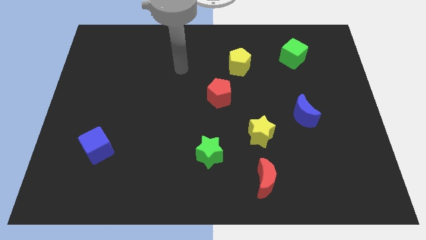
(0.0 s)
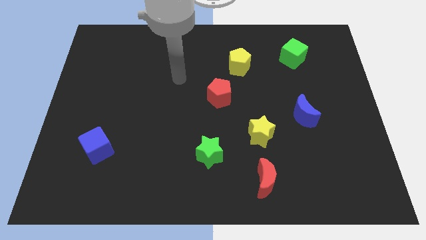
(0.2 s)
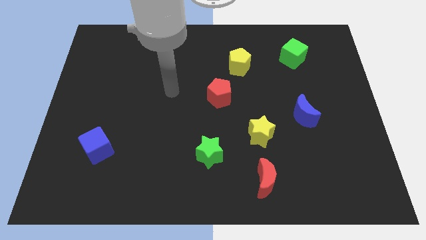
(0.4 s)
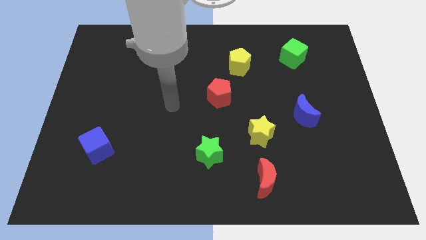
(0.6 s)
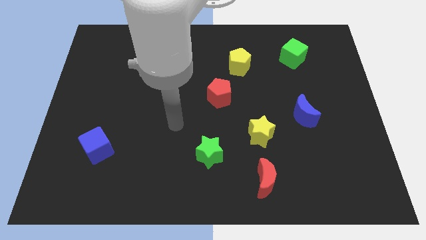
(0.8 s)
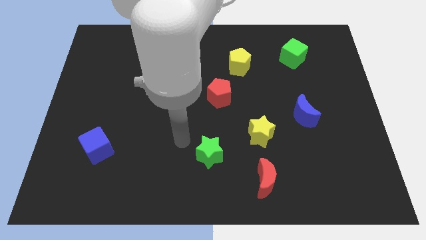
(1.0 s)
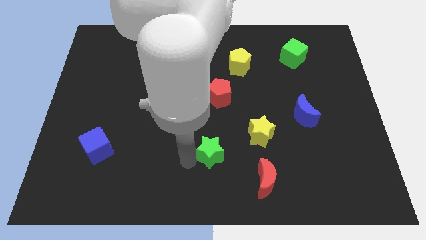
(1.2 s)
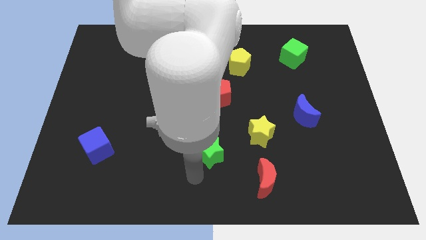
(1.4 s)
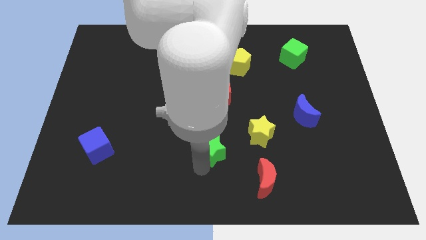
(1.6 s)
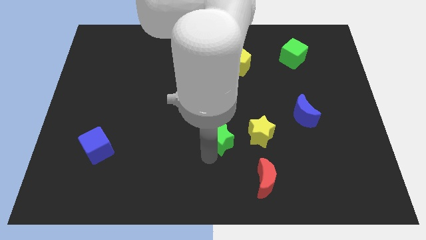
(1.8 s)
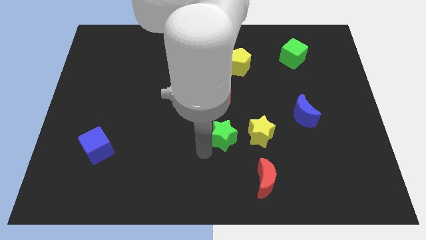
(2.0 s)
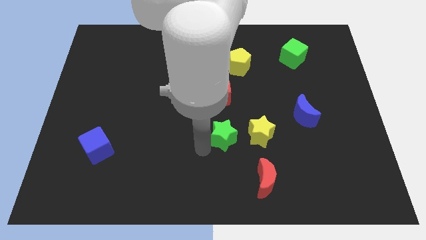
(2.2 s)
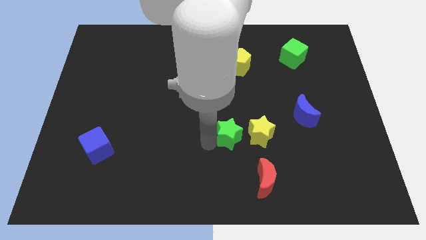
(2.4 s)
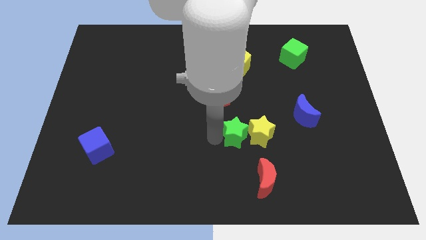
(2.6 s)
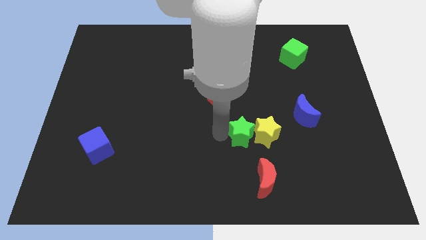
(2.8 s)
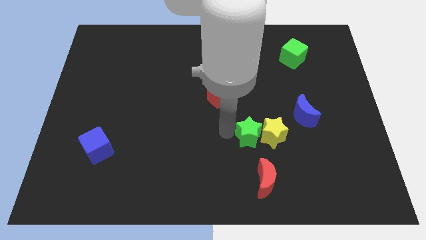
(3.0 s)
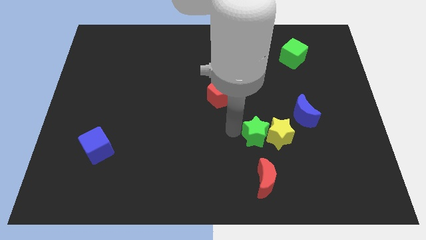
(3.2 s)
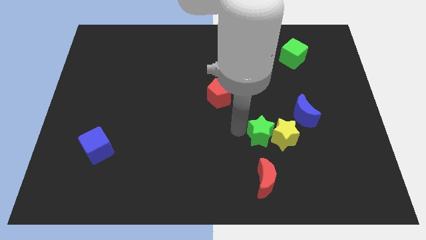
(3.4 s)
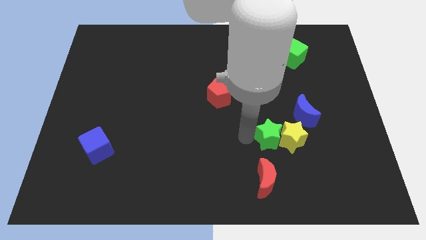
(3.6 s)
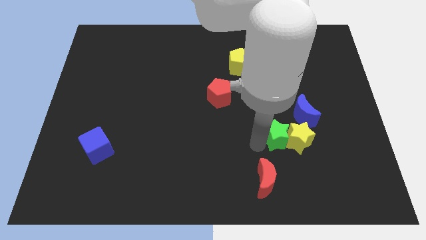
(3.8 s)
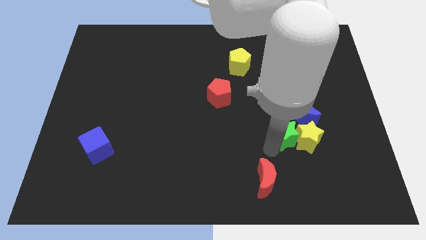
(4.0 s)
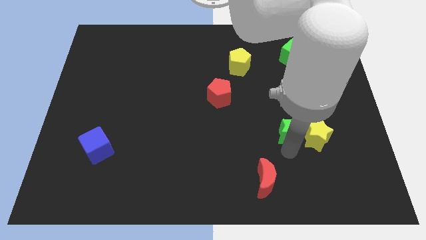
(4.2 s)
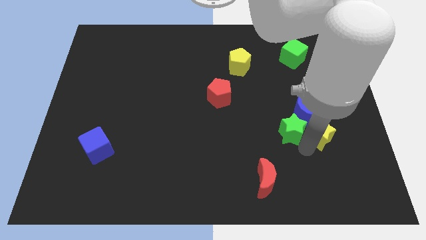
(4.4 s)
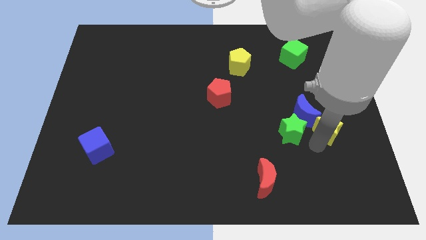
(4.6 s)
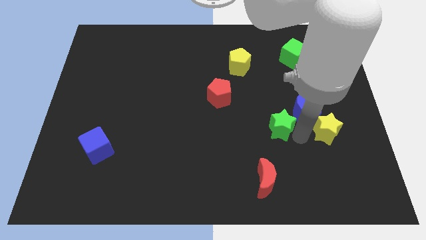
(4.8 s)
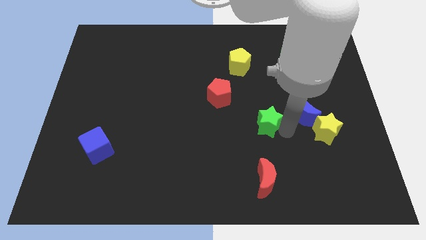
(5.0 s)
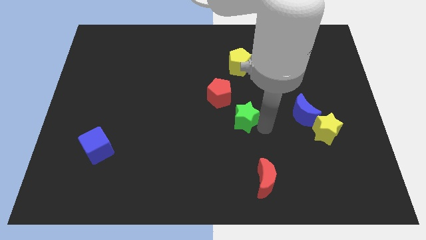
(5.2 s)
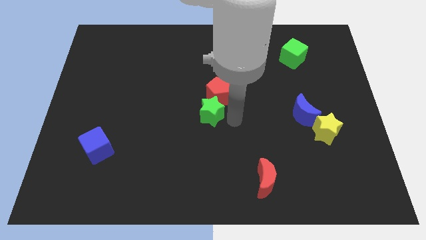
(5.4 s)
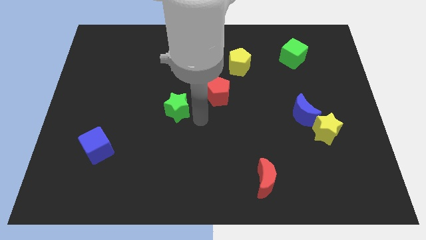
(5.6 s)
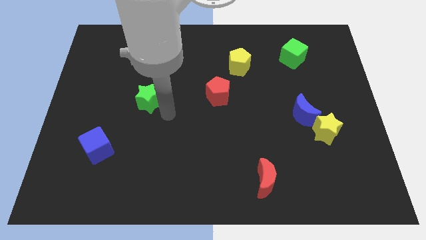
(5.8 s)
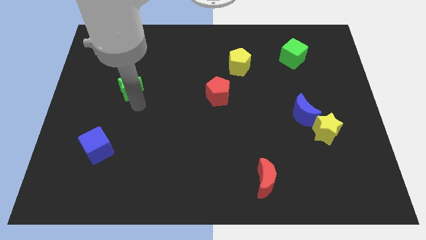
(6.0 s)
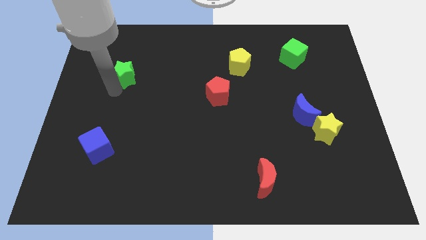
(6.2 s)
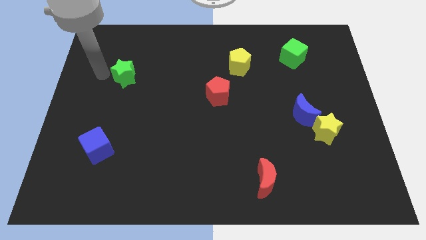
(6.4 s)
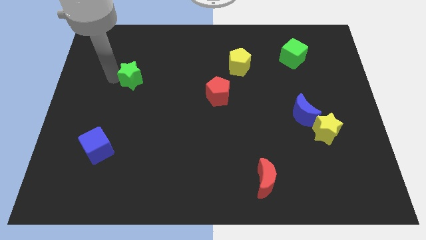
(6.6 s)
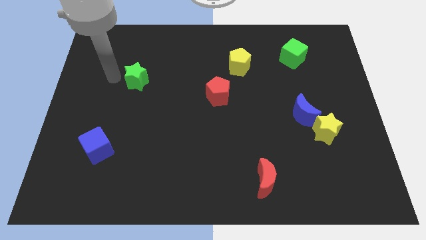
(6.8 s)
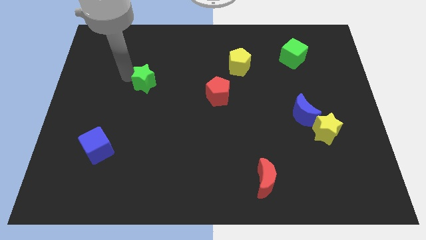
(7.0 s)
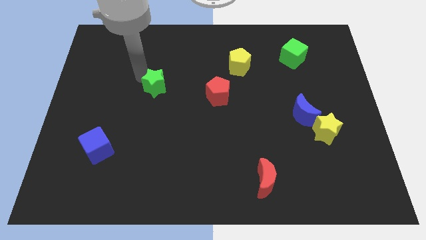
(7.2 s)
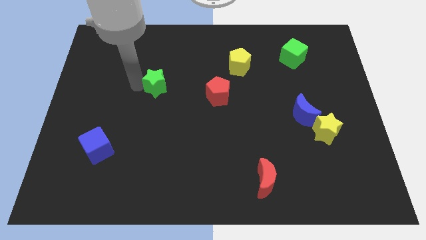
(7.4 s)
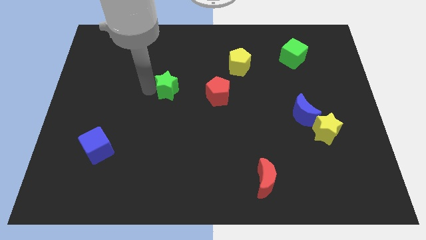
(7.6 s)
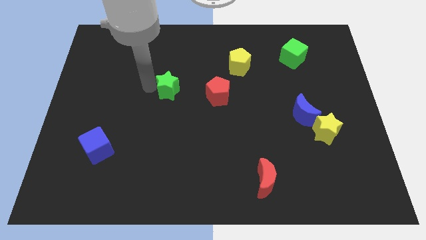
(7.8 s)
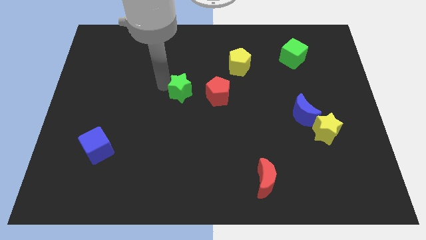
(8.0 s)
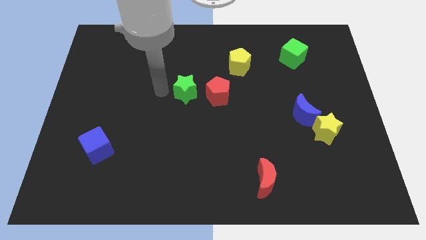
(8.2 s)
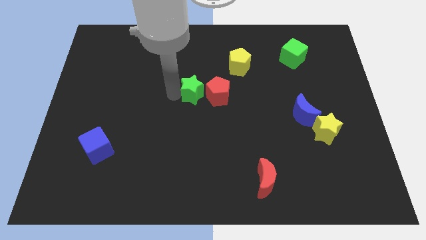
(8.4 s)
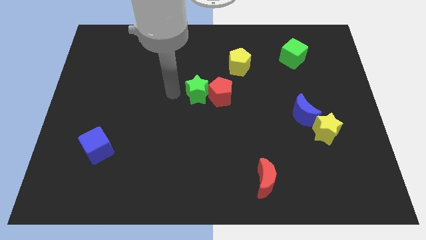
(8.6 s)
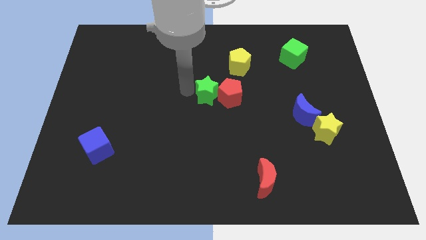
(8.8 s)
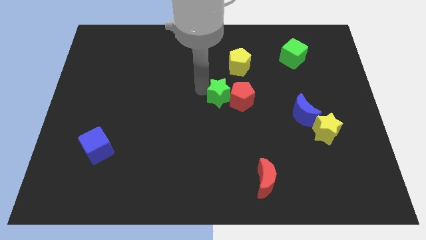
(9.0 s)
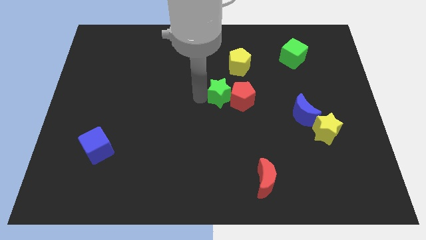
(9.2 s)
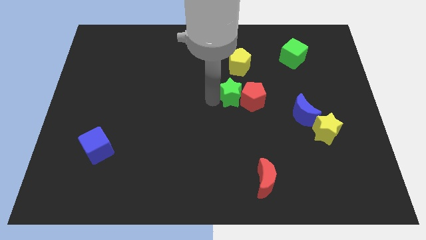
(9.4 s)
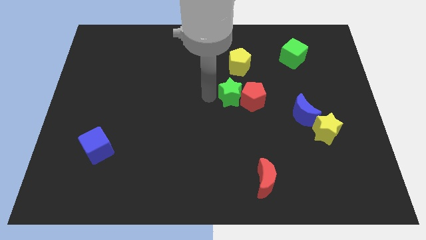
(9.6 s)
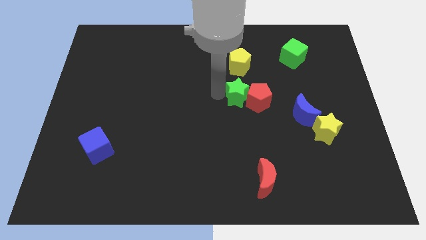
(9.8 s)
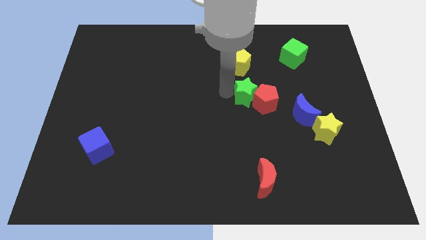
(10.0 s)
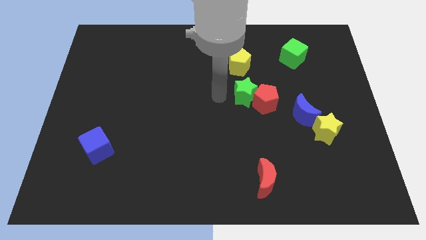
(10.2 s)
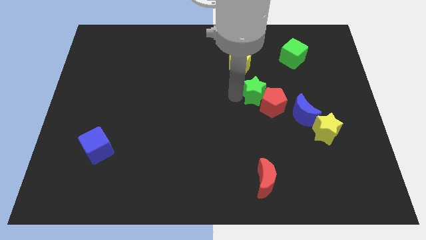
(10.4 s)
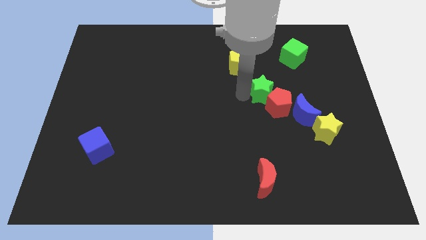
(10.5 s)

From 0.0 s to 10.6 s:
move the green star up and right

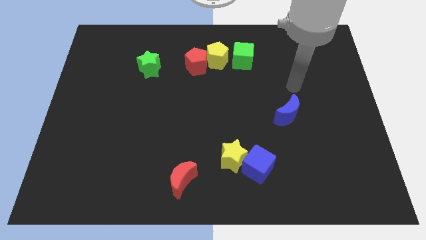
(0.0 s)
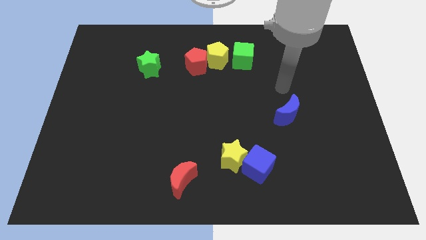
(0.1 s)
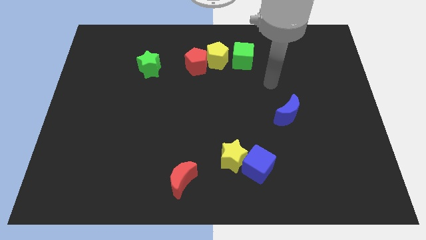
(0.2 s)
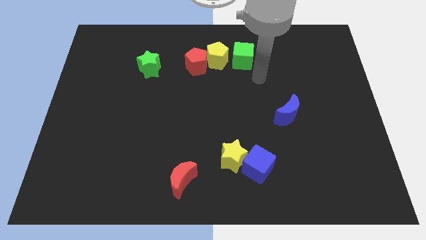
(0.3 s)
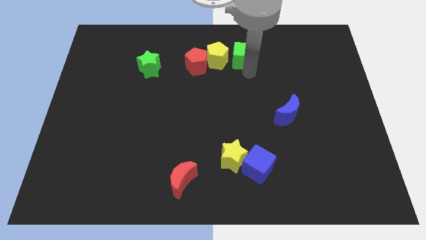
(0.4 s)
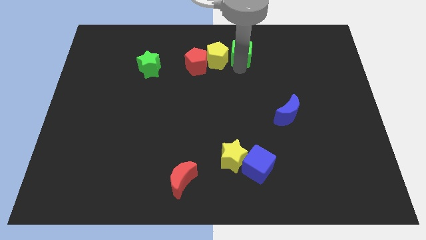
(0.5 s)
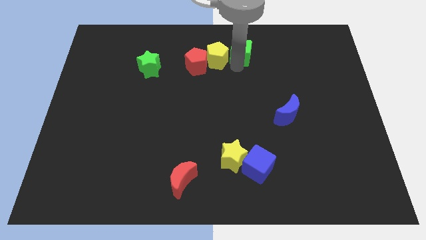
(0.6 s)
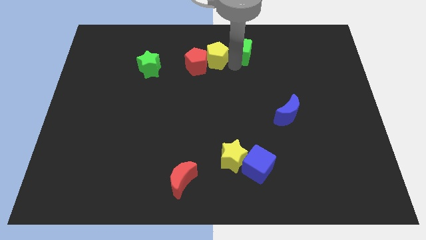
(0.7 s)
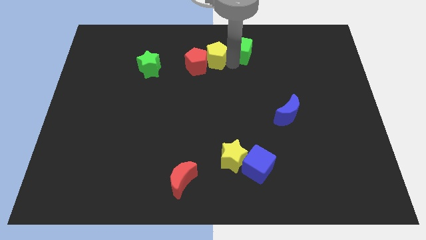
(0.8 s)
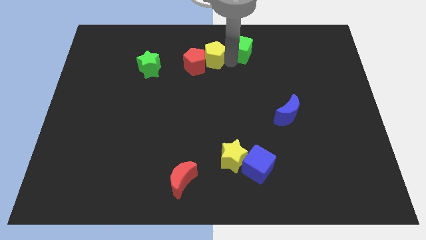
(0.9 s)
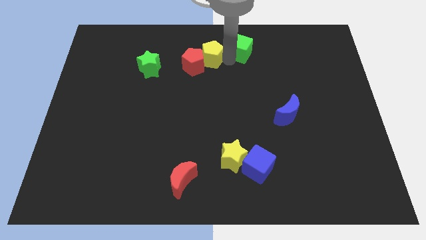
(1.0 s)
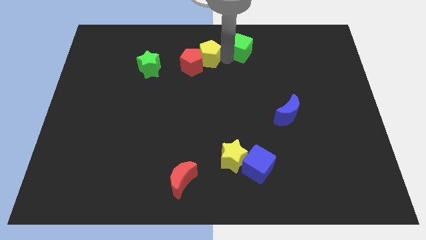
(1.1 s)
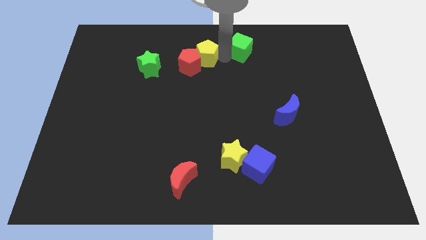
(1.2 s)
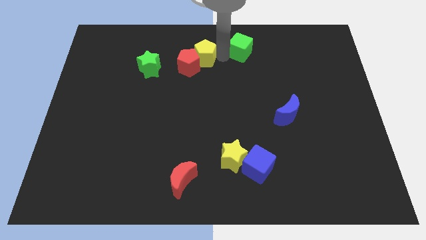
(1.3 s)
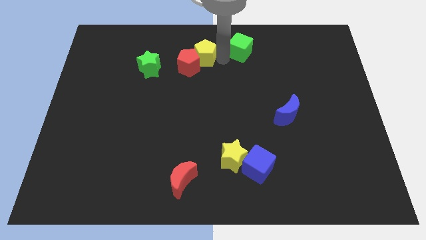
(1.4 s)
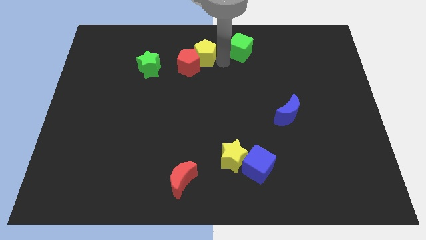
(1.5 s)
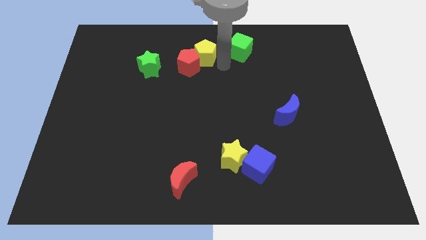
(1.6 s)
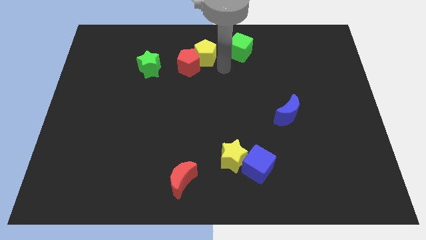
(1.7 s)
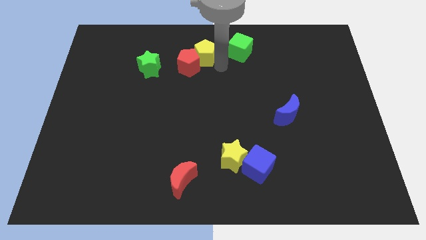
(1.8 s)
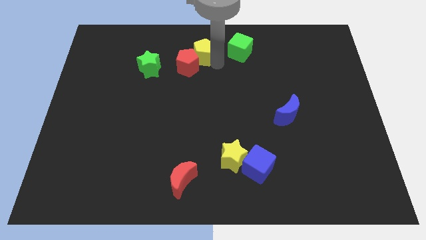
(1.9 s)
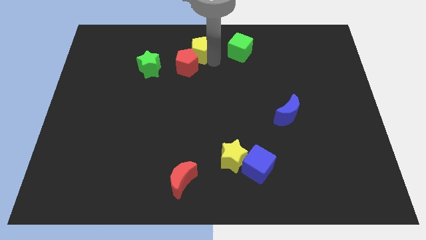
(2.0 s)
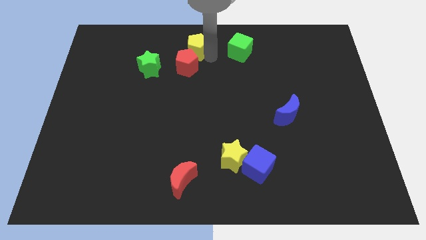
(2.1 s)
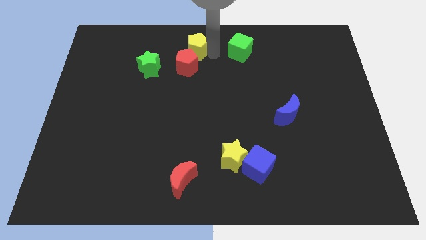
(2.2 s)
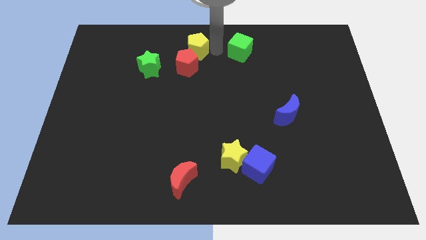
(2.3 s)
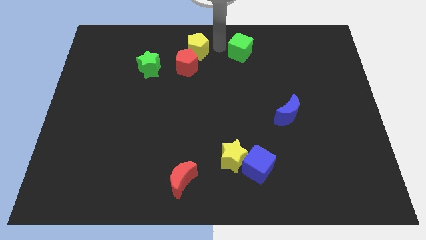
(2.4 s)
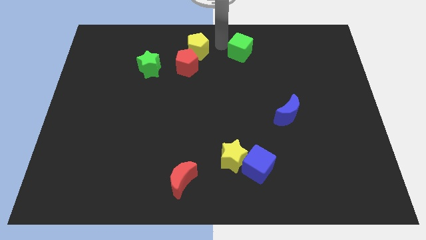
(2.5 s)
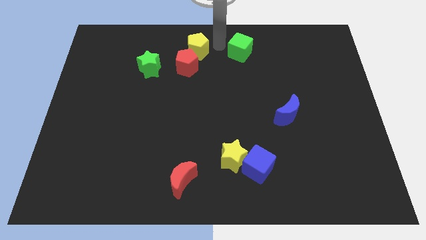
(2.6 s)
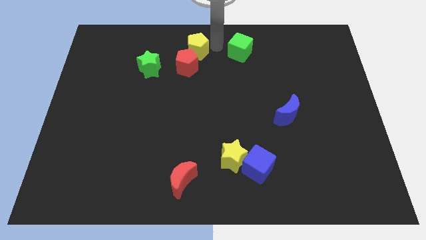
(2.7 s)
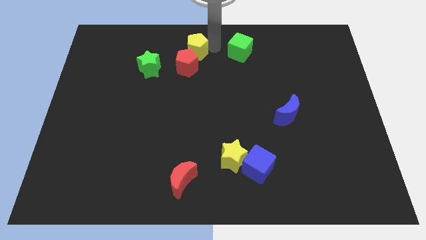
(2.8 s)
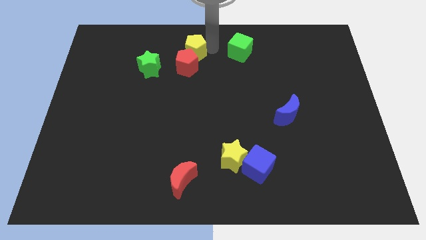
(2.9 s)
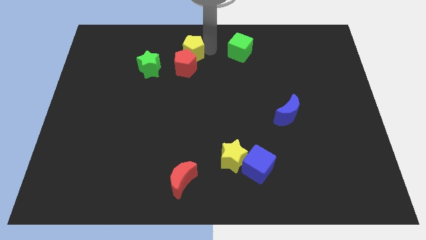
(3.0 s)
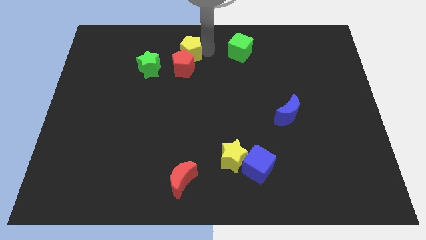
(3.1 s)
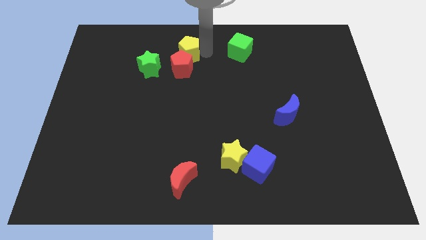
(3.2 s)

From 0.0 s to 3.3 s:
slide the yellow pentagon to the left a little bit
